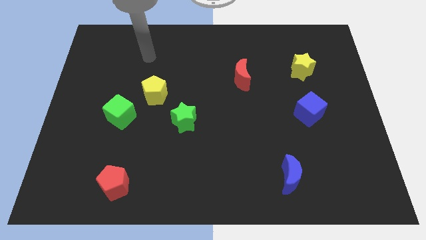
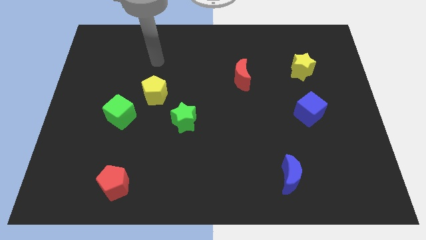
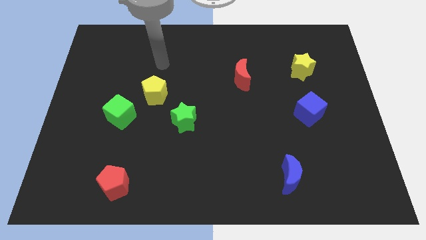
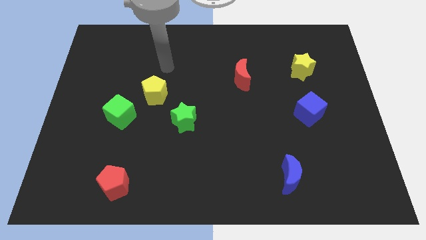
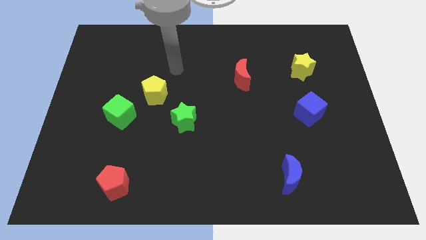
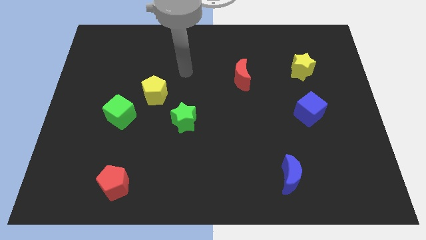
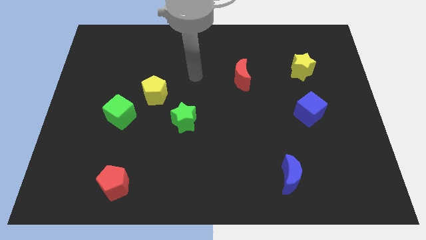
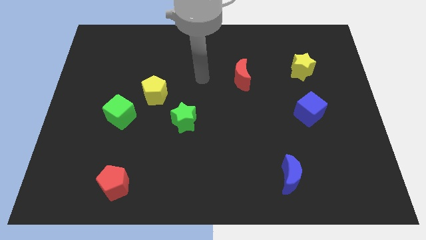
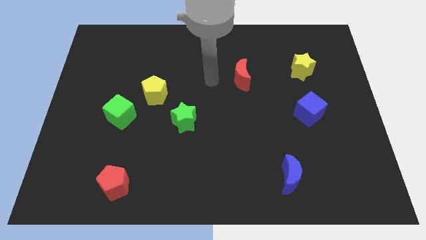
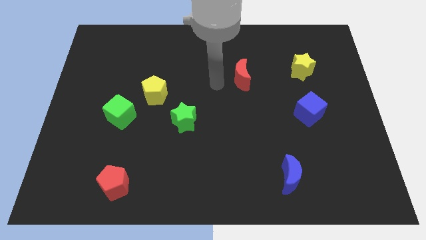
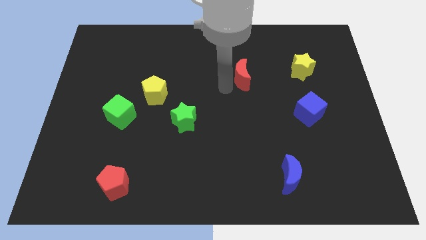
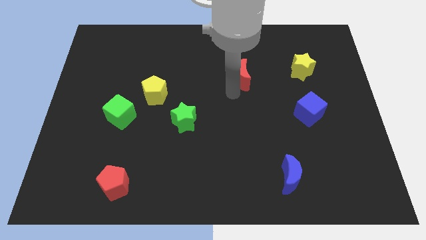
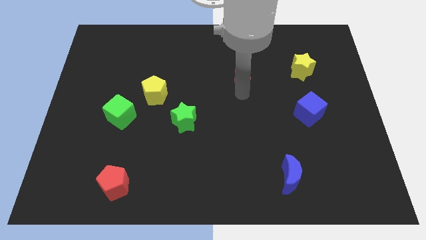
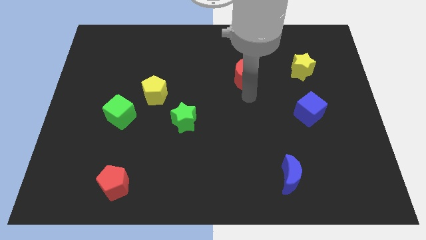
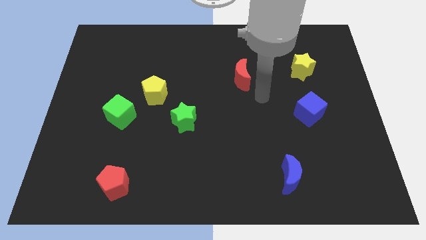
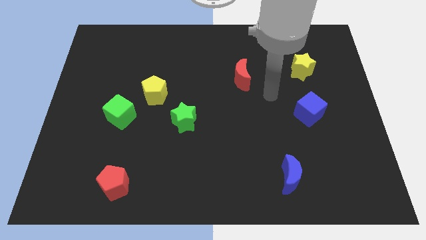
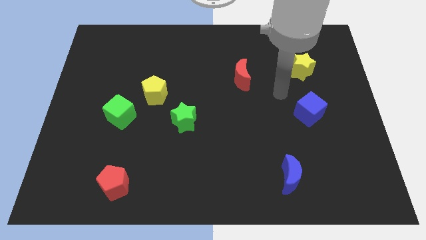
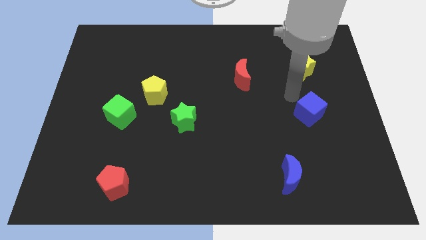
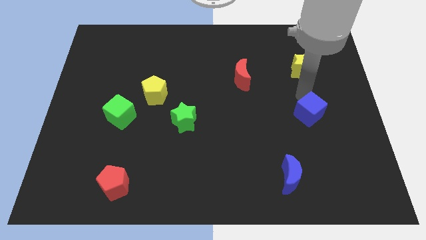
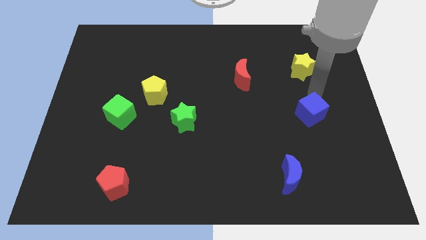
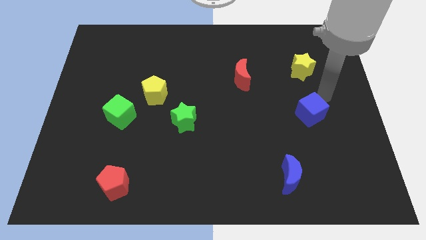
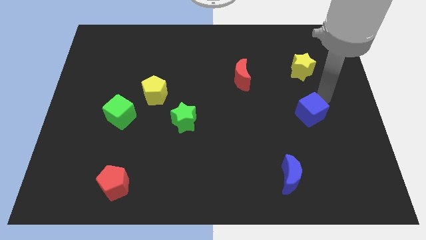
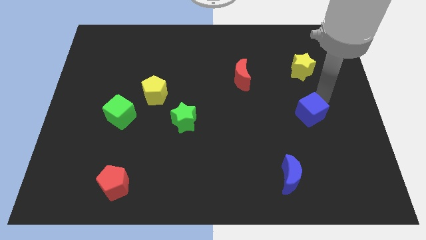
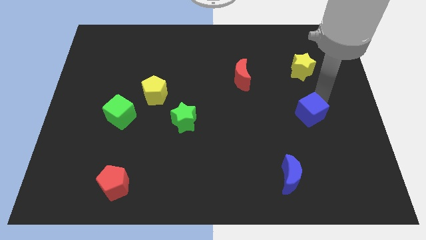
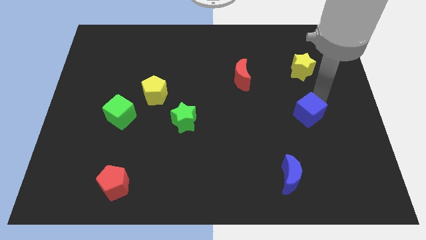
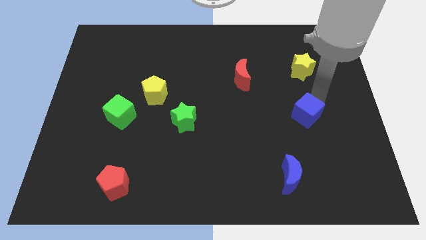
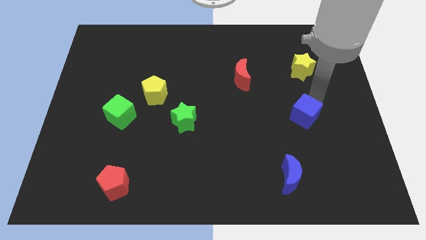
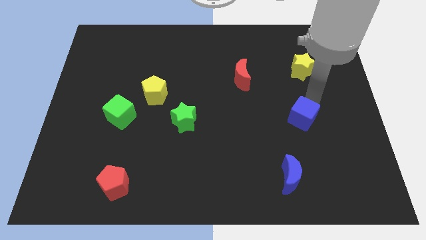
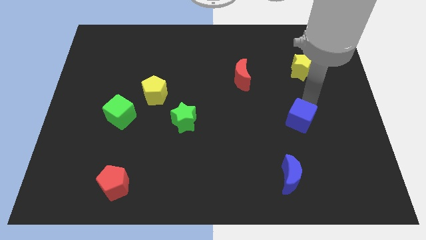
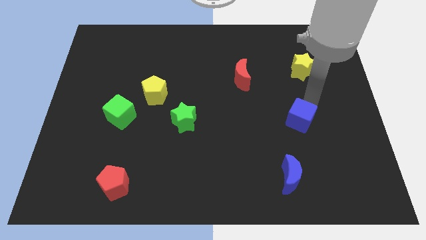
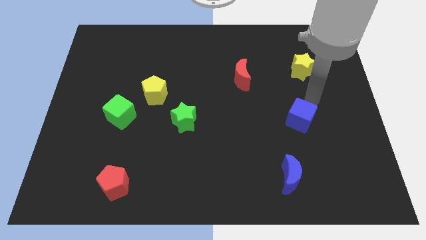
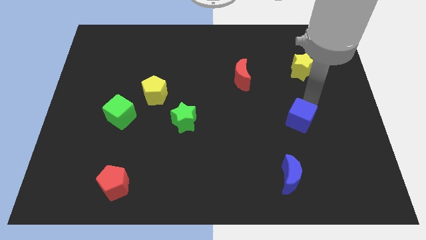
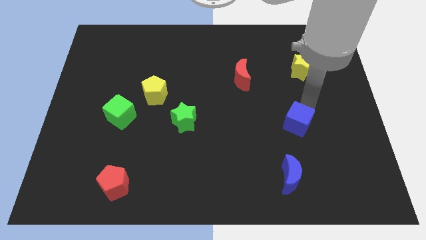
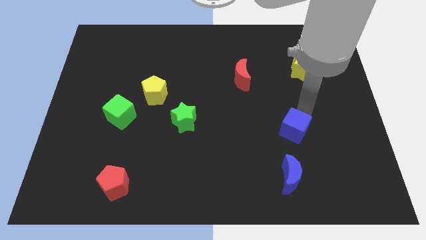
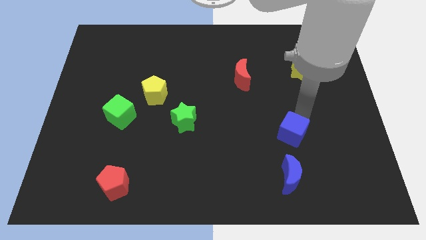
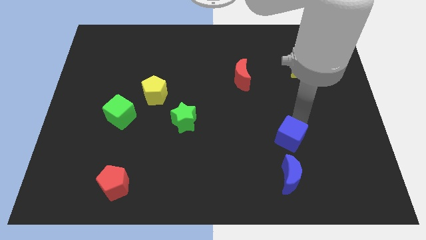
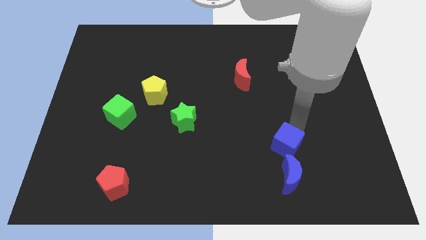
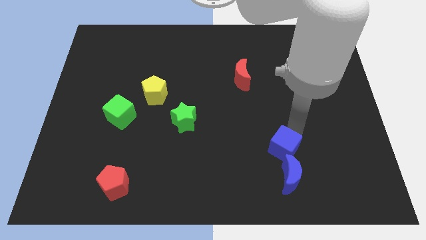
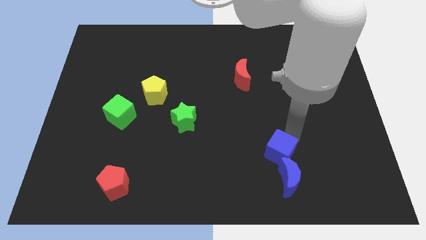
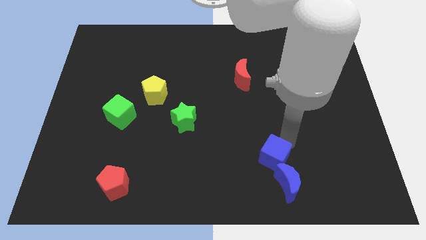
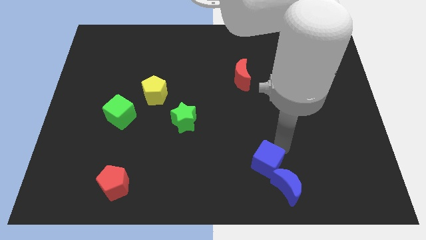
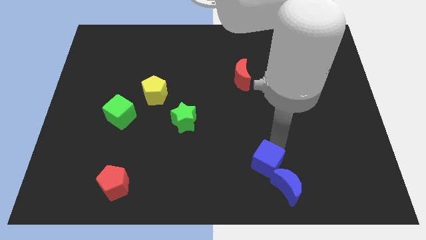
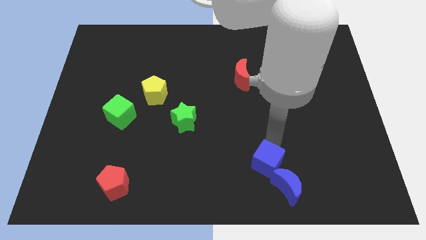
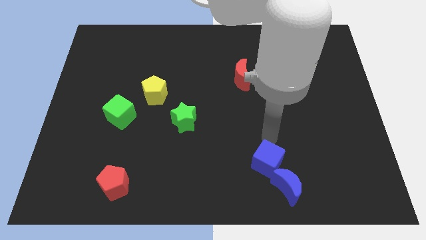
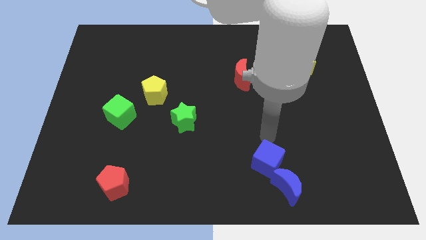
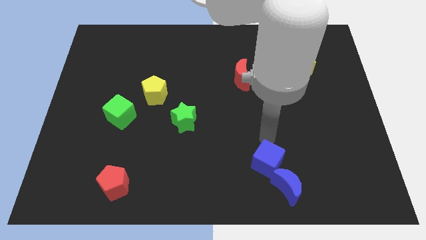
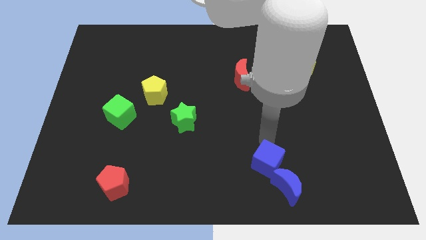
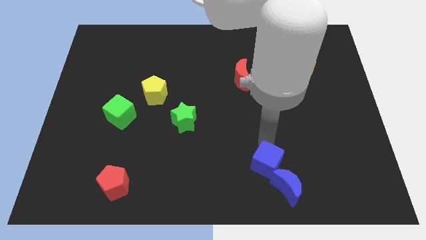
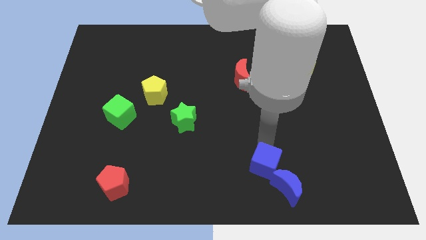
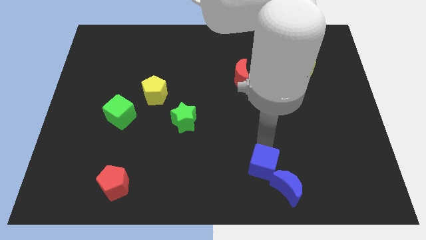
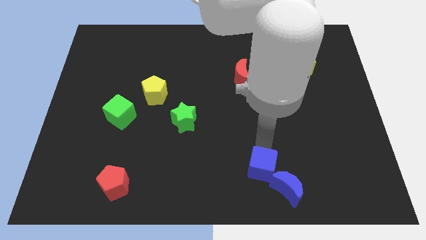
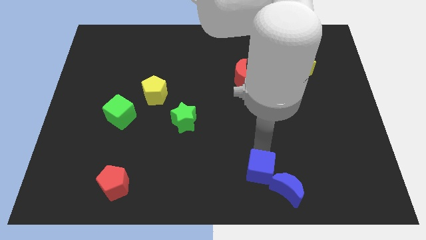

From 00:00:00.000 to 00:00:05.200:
slide the blue cube to the bottom

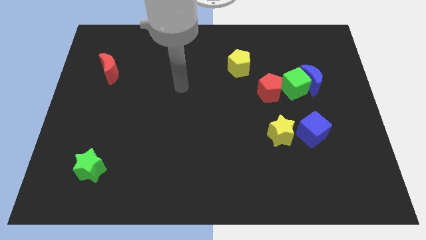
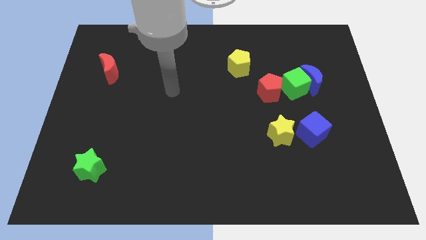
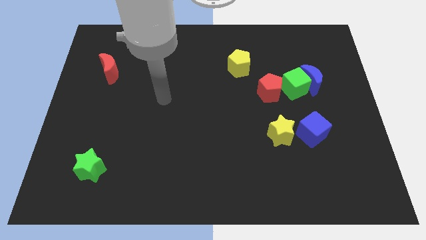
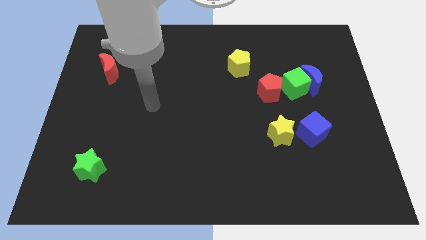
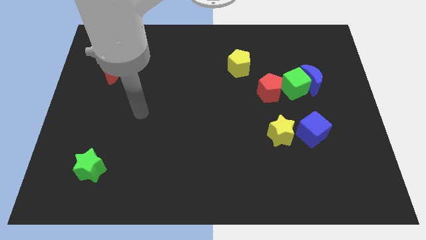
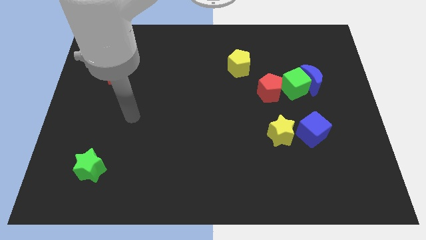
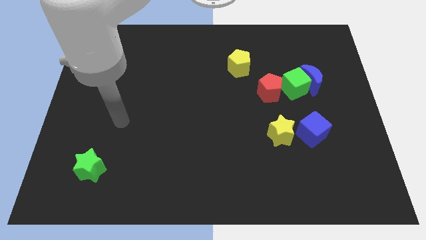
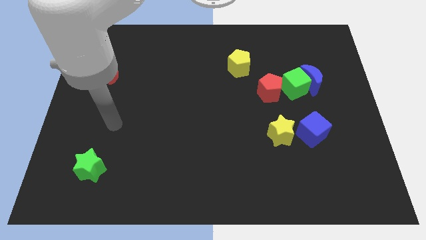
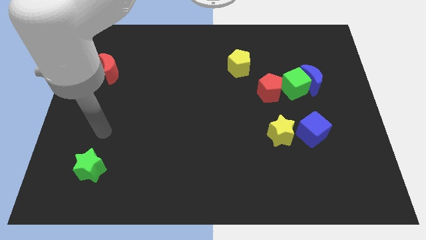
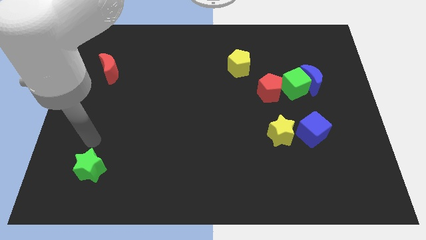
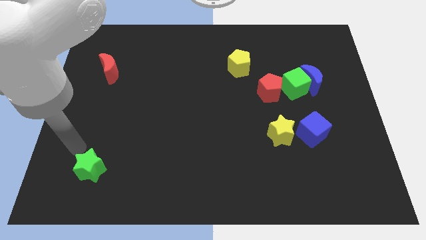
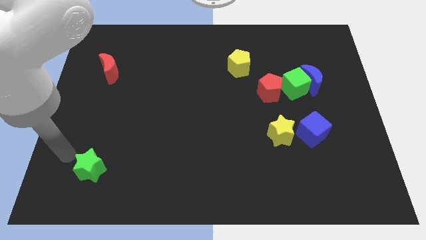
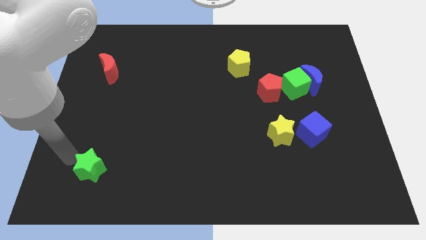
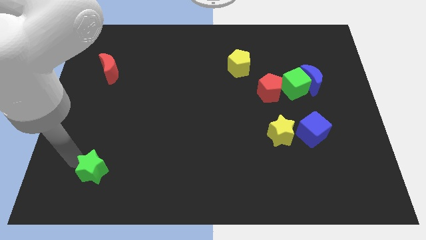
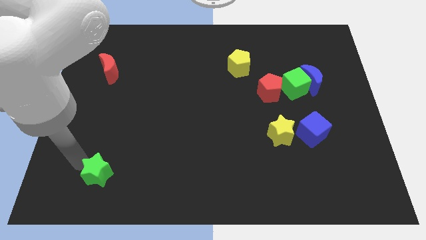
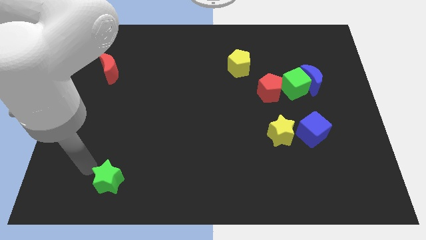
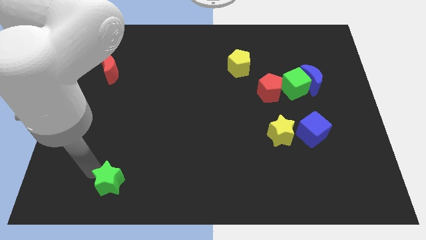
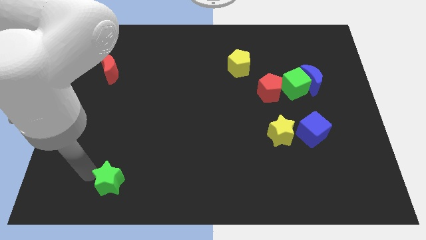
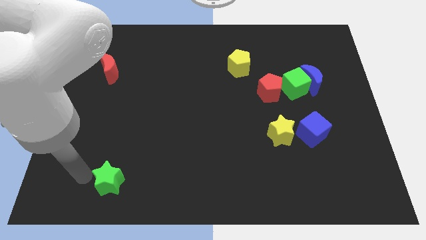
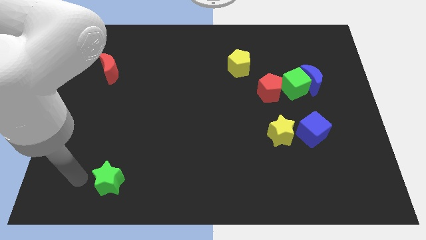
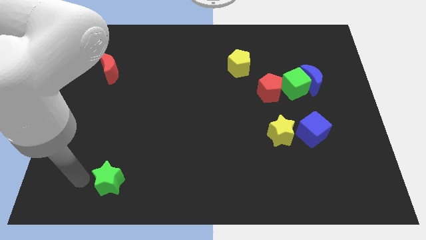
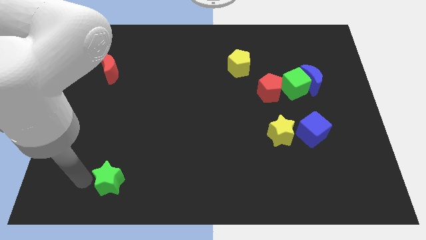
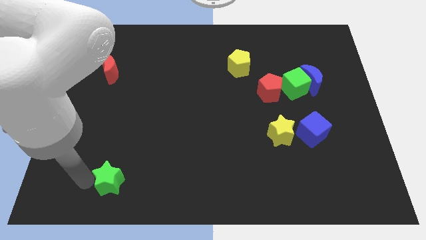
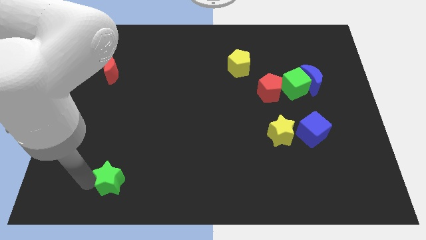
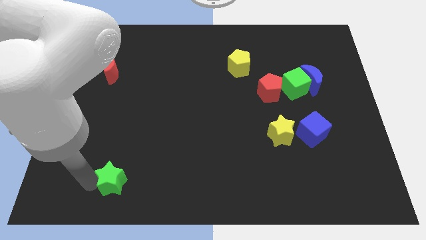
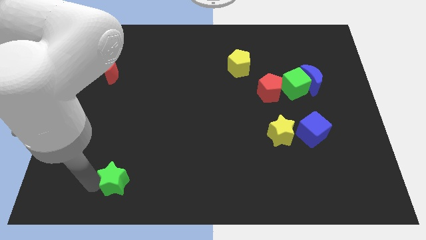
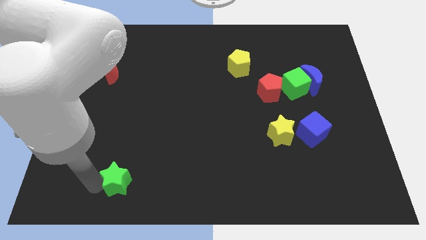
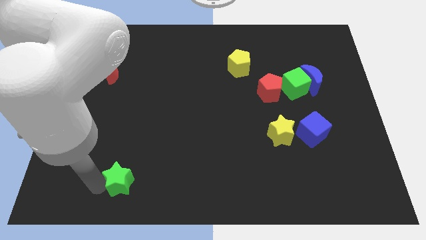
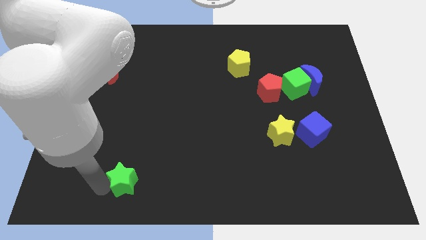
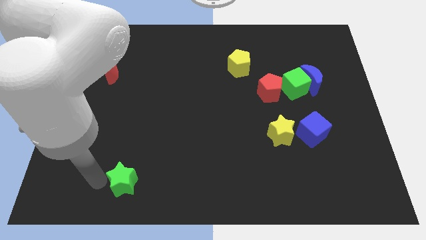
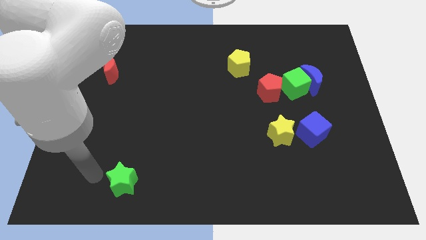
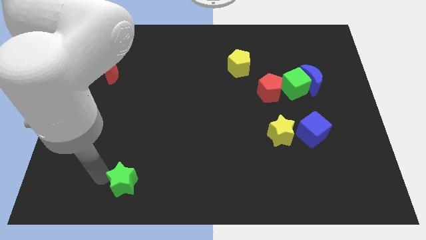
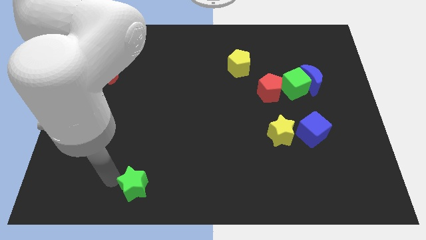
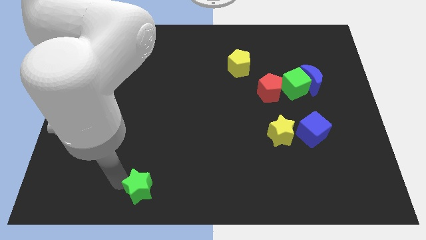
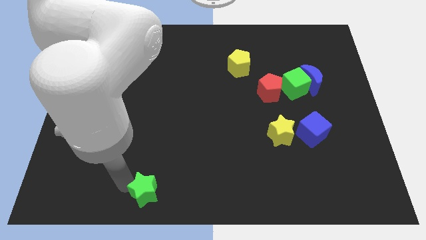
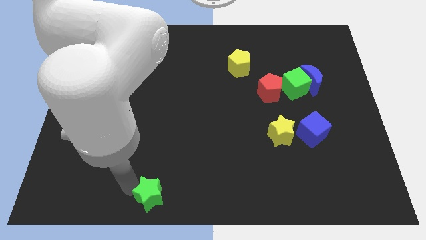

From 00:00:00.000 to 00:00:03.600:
push the green star to the bottom
